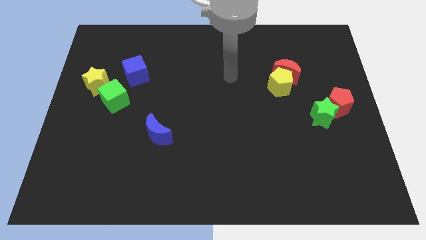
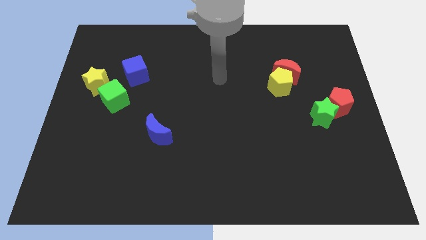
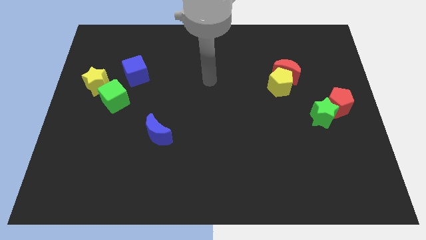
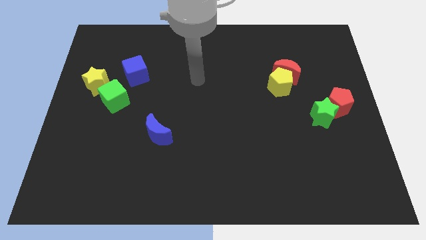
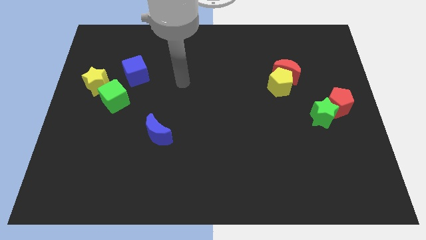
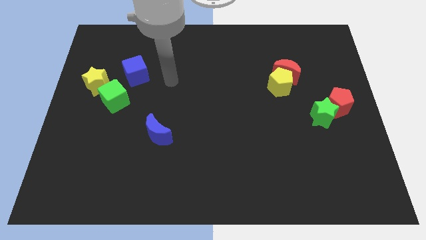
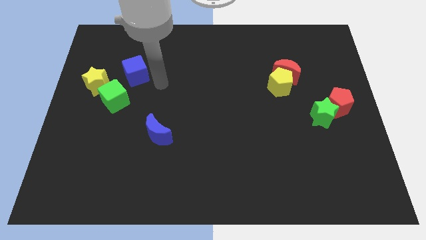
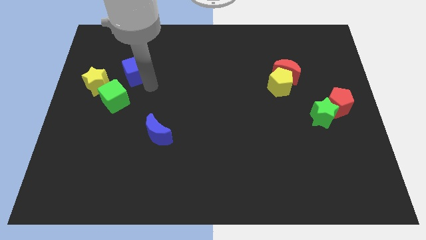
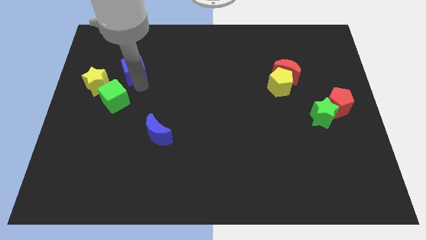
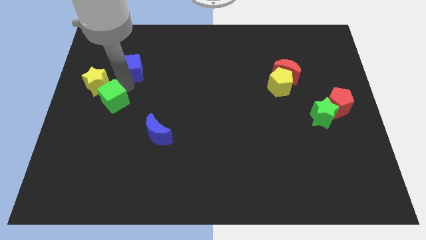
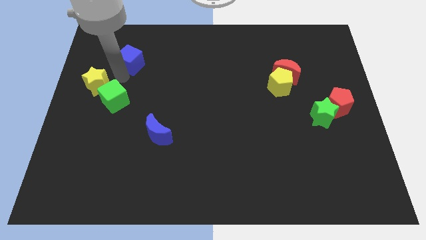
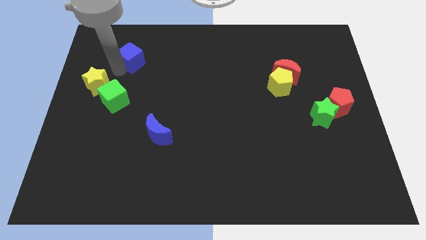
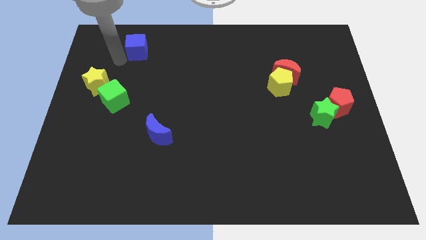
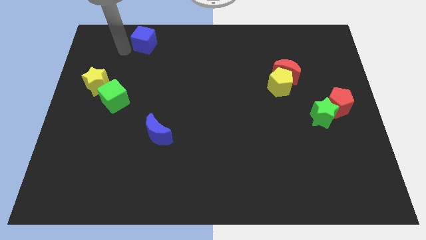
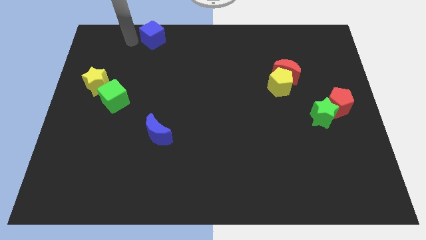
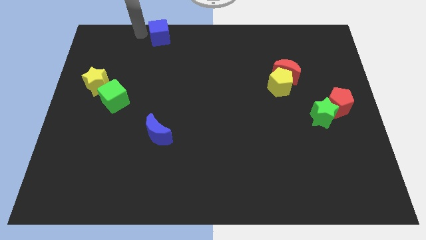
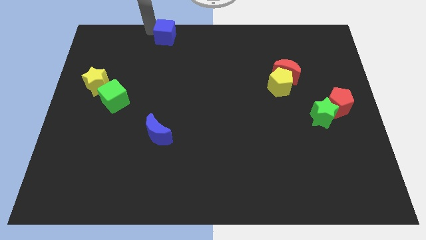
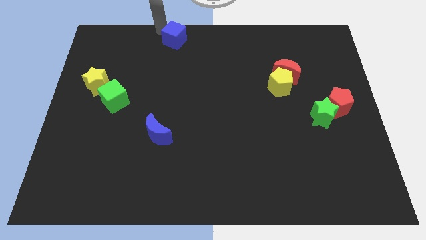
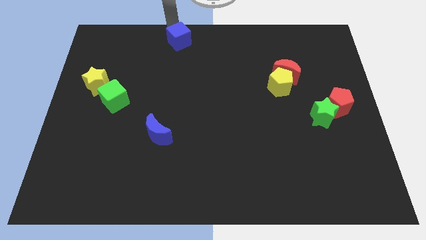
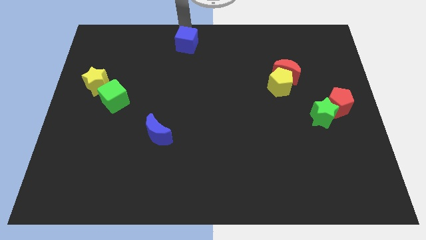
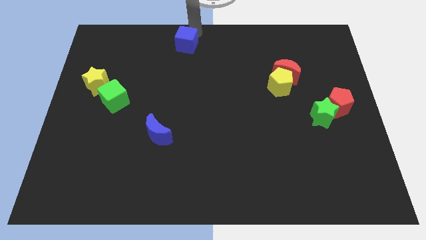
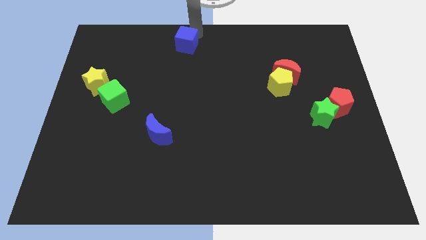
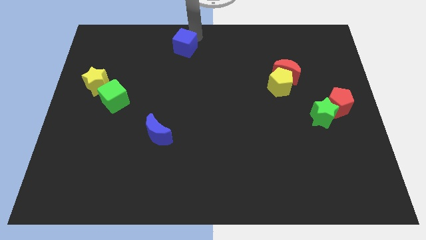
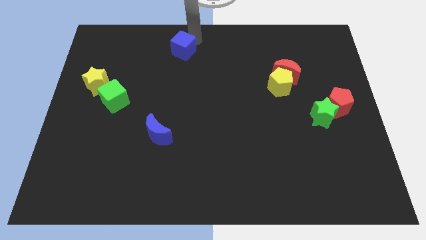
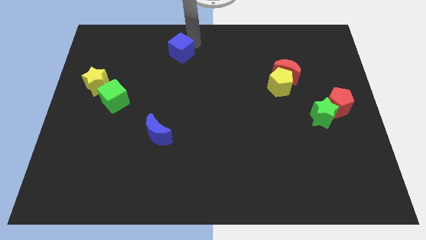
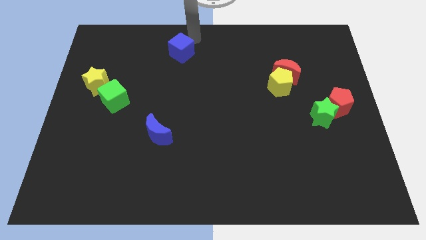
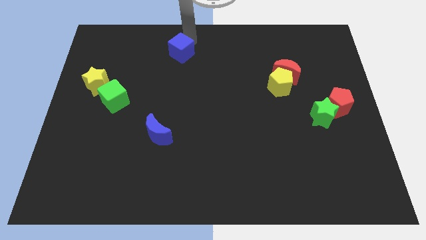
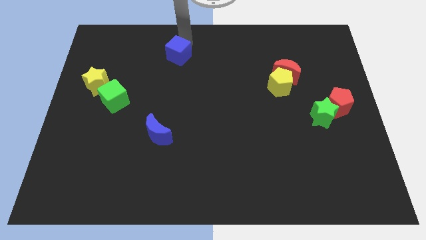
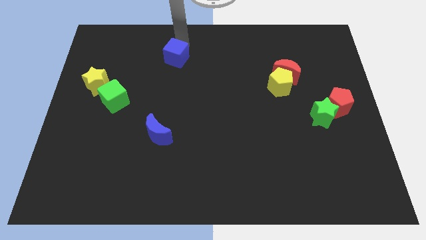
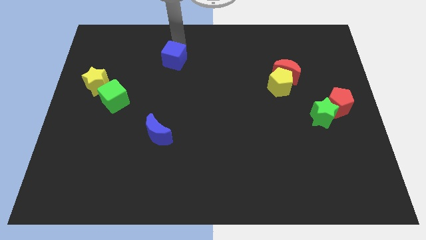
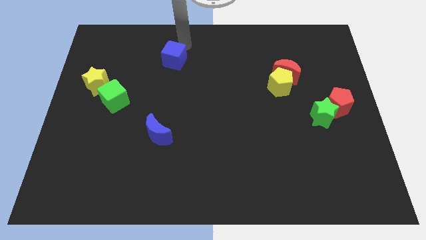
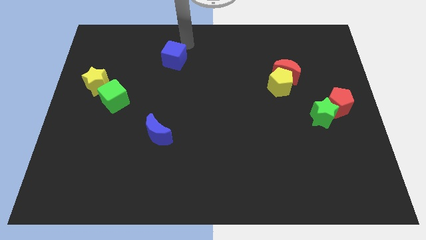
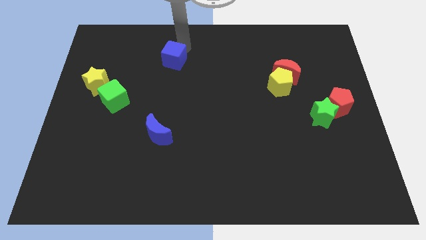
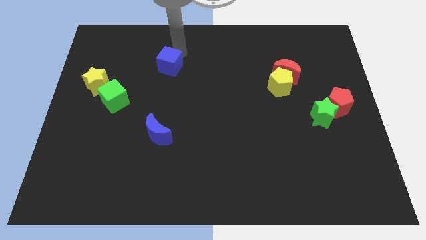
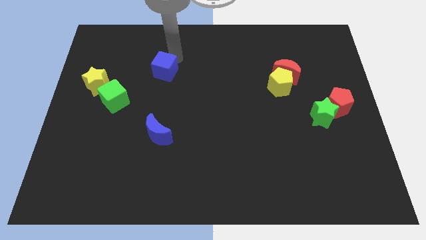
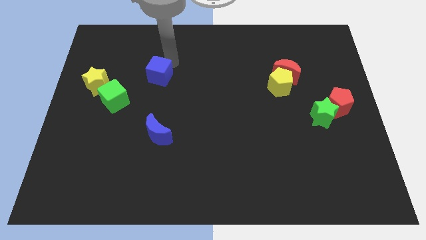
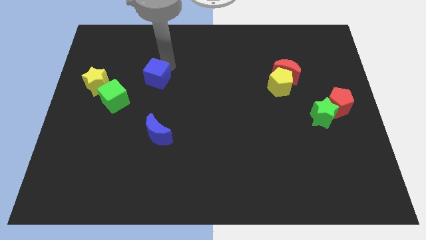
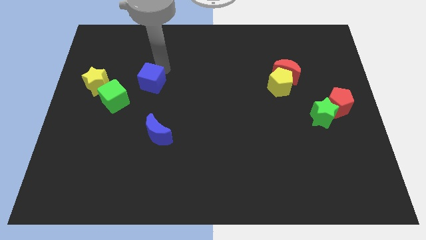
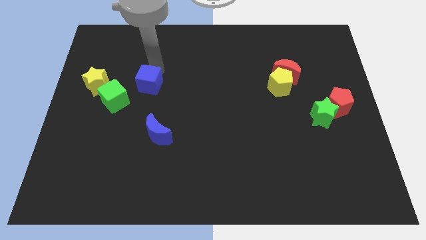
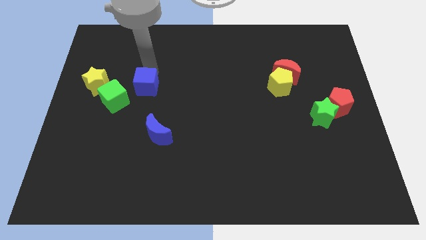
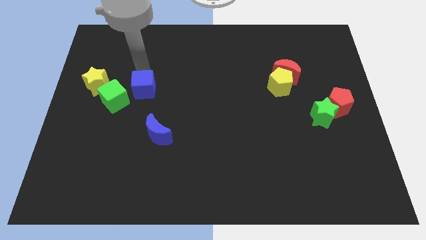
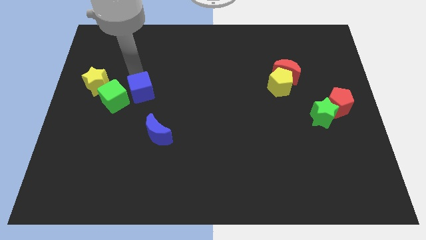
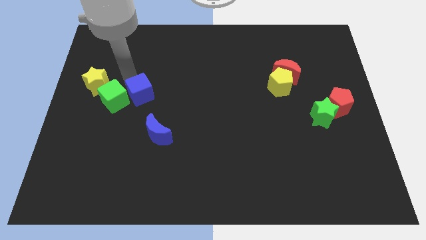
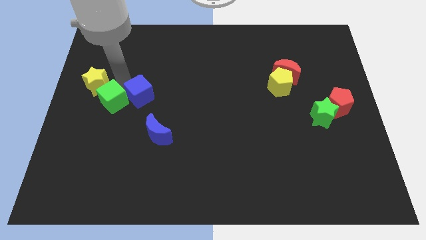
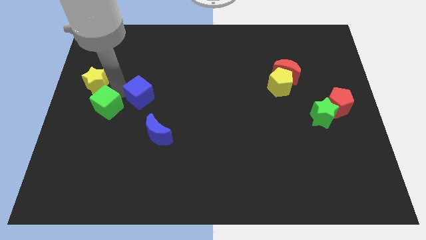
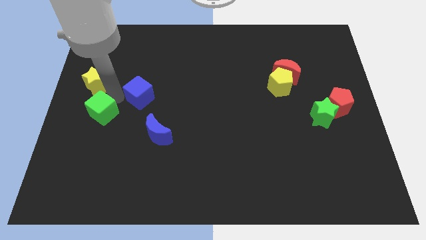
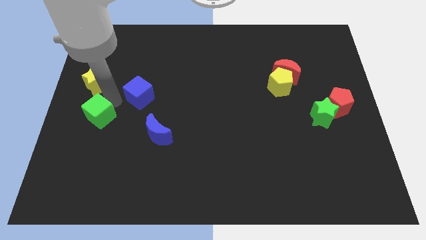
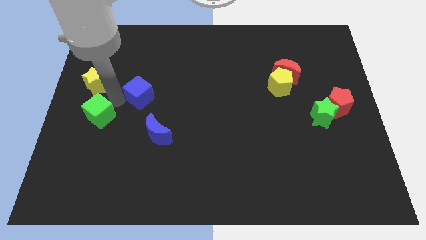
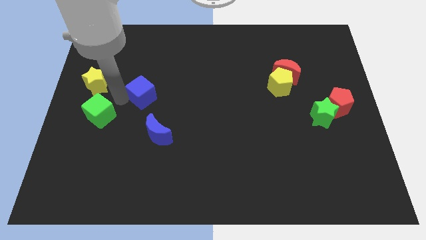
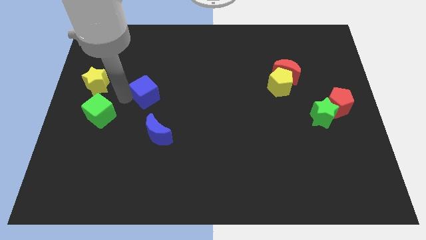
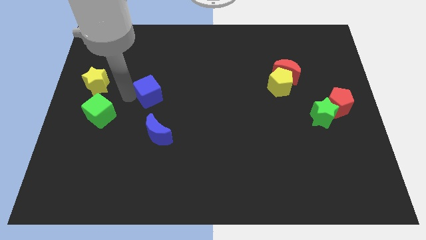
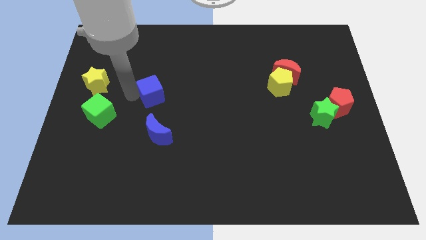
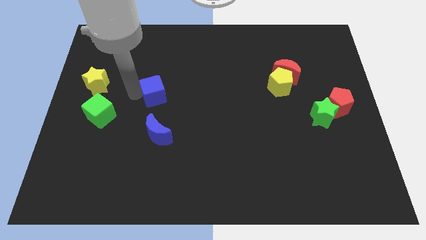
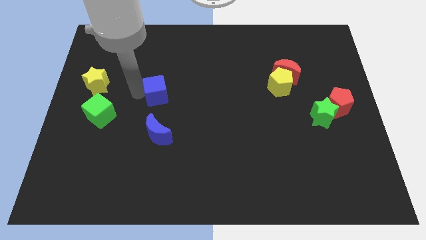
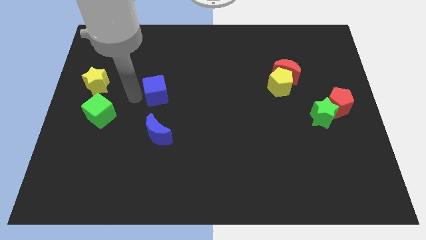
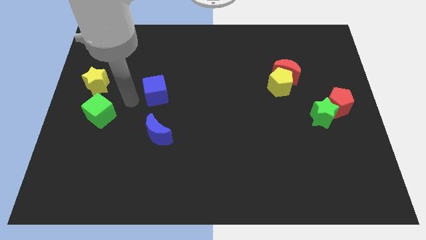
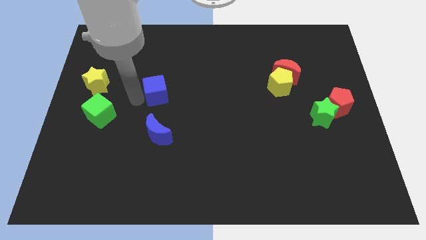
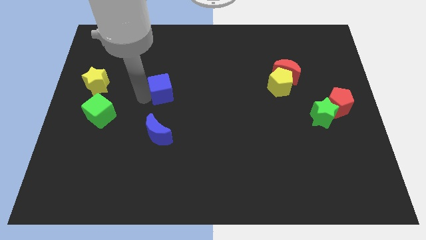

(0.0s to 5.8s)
move the blue cube to the middle of the board
